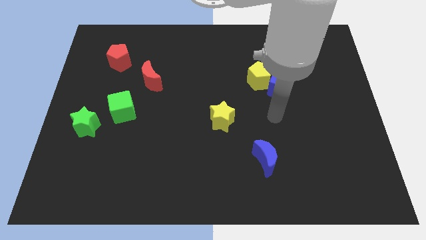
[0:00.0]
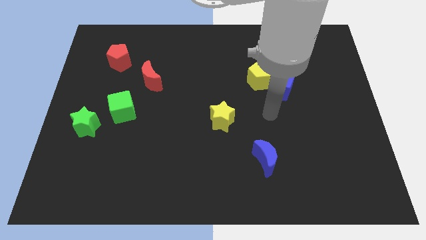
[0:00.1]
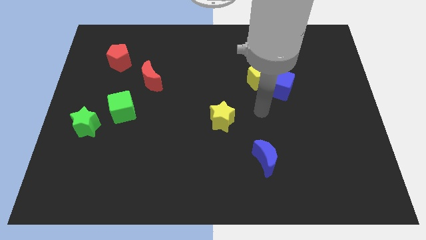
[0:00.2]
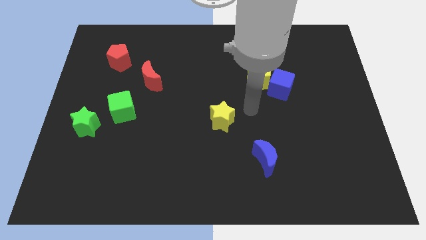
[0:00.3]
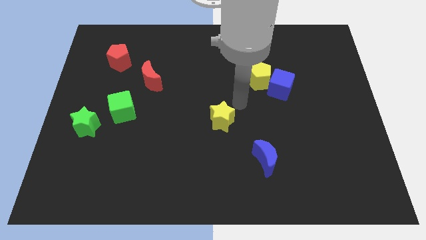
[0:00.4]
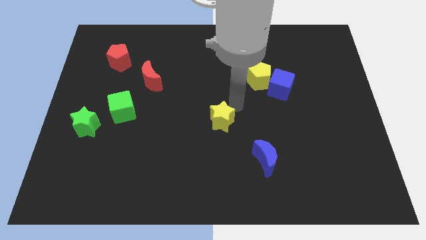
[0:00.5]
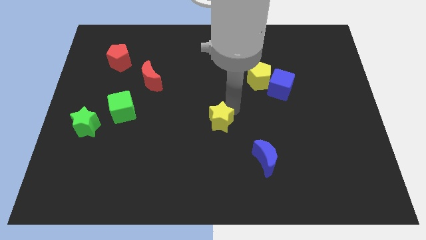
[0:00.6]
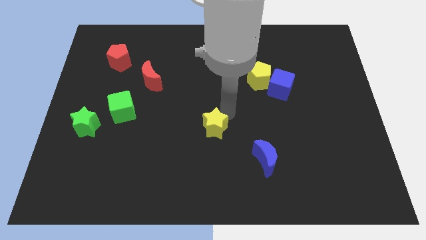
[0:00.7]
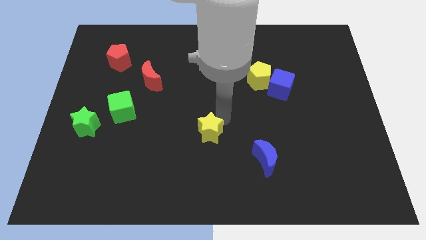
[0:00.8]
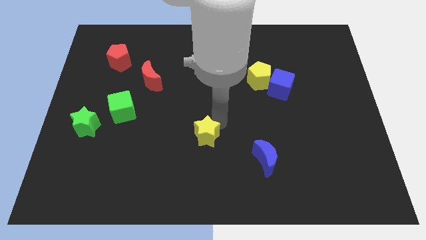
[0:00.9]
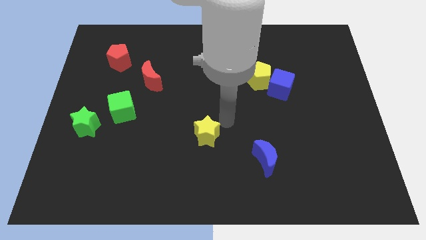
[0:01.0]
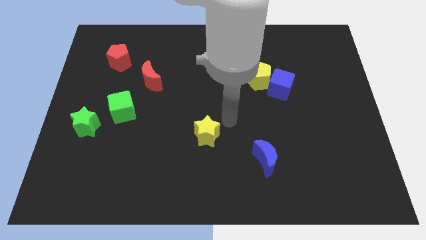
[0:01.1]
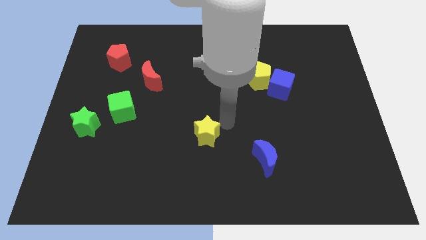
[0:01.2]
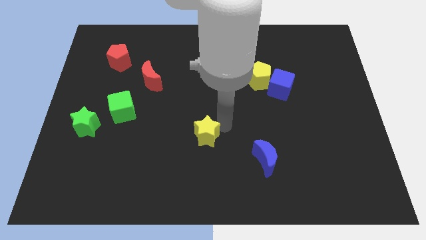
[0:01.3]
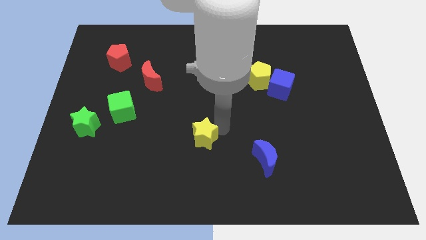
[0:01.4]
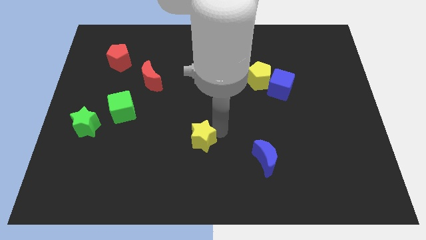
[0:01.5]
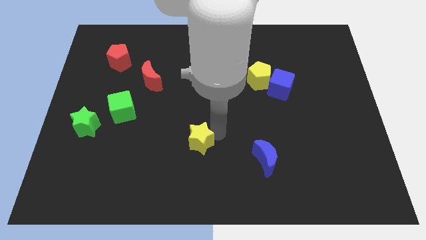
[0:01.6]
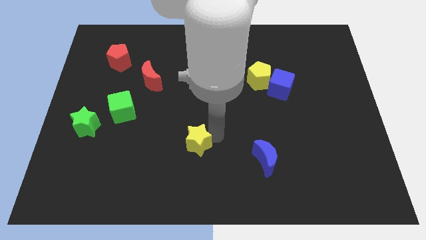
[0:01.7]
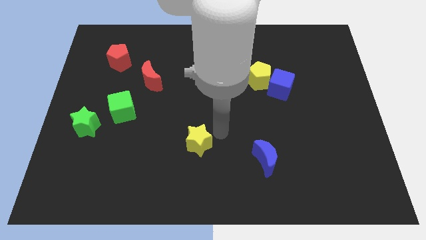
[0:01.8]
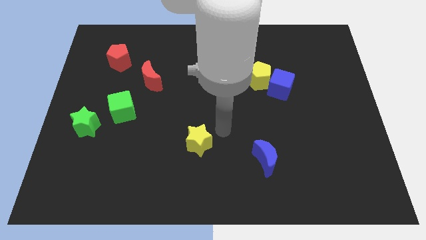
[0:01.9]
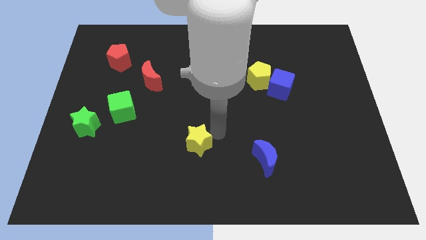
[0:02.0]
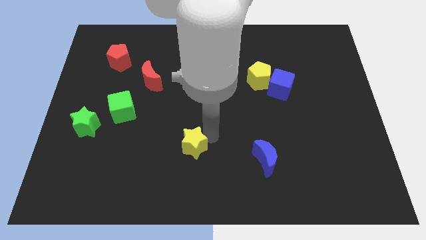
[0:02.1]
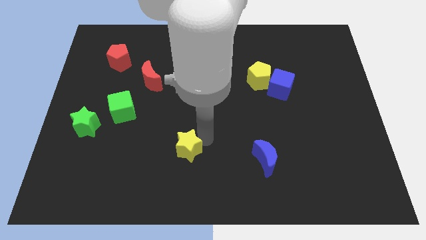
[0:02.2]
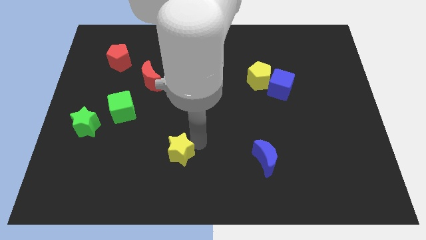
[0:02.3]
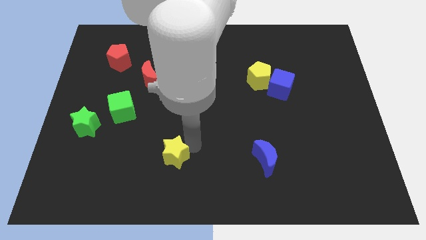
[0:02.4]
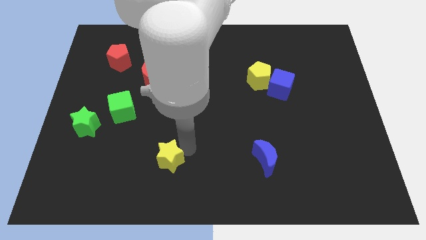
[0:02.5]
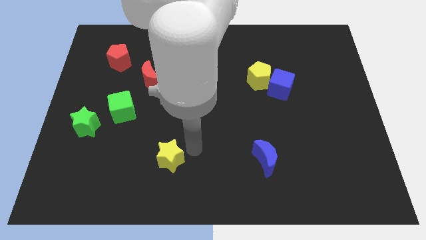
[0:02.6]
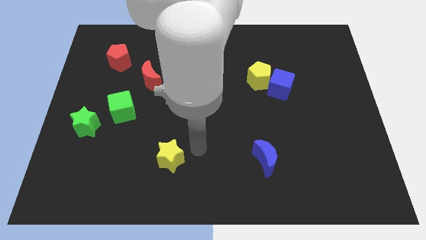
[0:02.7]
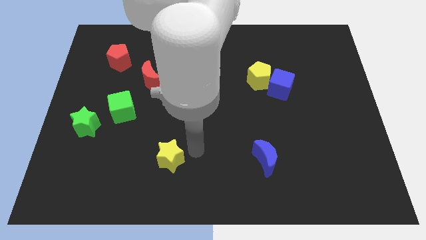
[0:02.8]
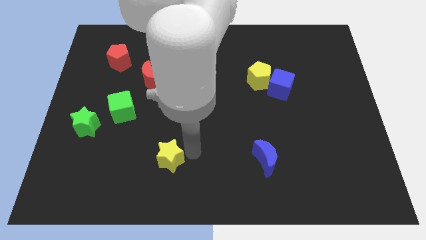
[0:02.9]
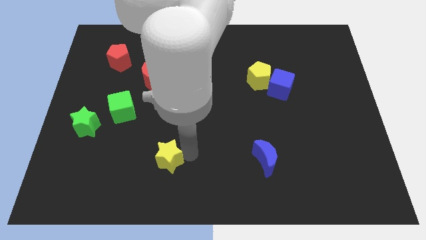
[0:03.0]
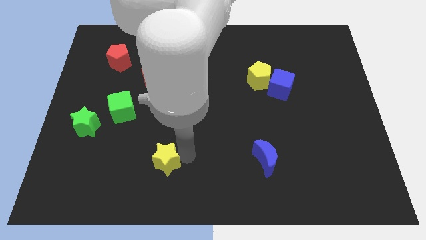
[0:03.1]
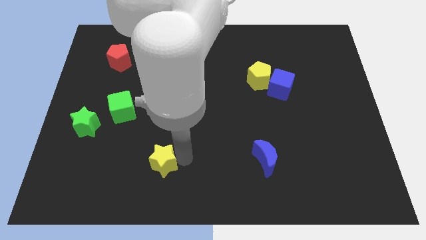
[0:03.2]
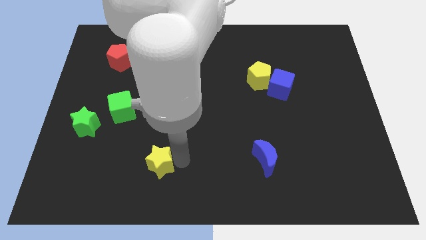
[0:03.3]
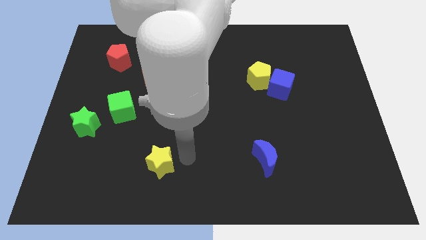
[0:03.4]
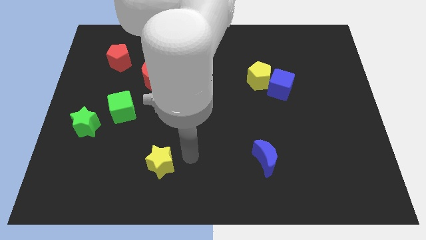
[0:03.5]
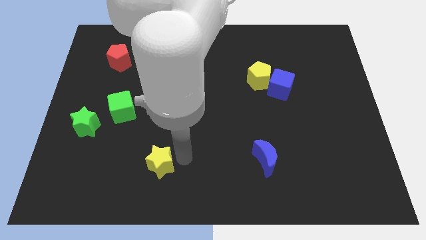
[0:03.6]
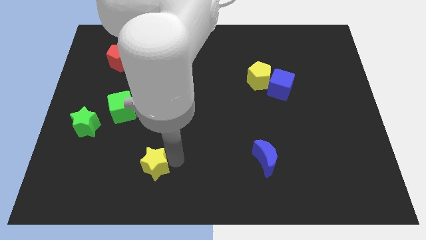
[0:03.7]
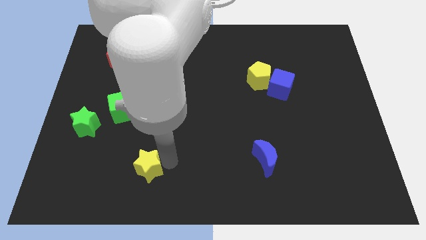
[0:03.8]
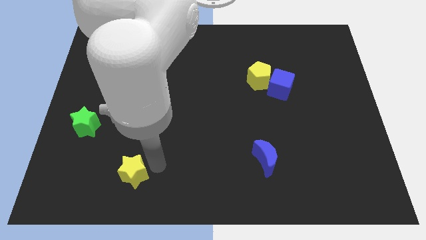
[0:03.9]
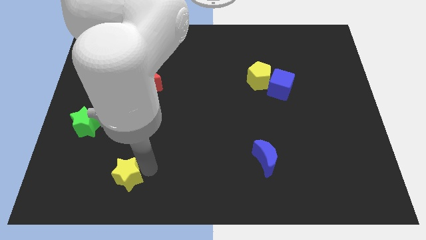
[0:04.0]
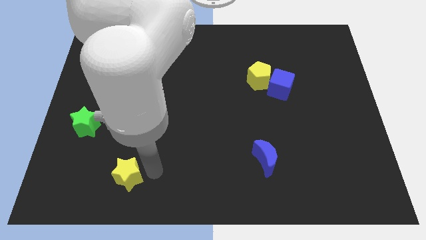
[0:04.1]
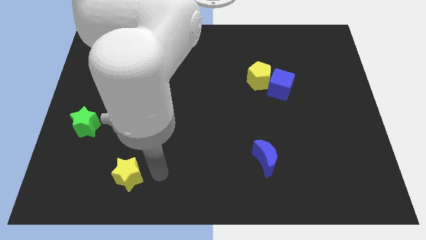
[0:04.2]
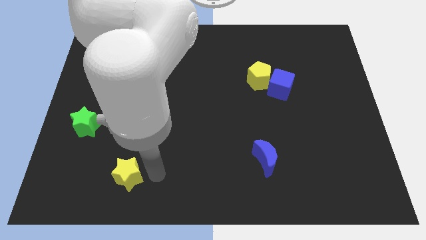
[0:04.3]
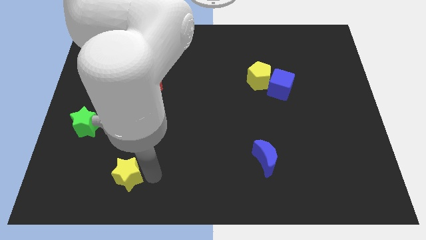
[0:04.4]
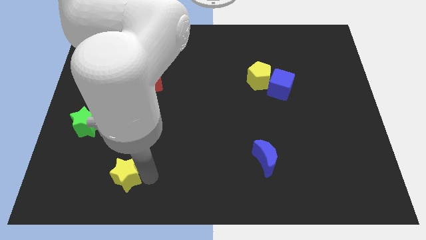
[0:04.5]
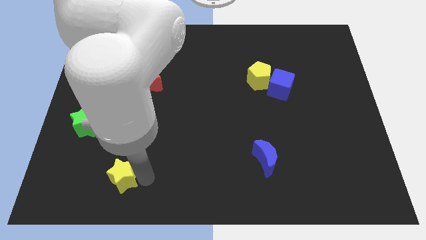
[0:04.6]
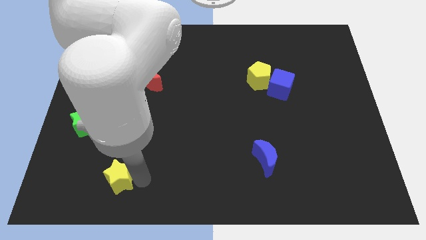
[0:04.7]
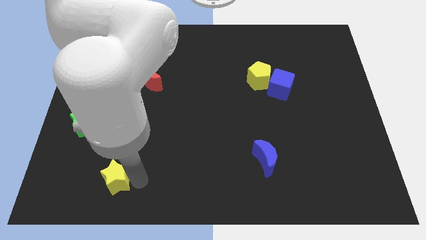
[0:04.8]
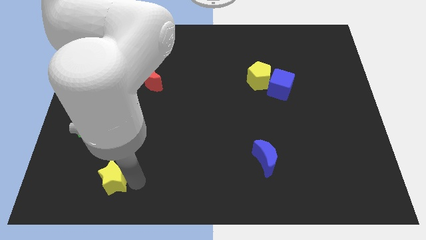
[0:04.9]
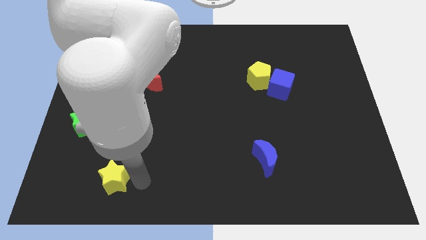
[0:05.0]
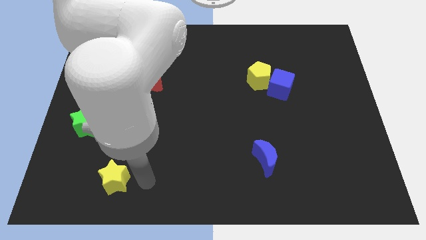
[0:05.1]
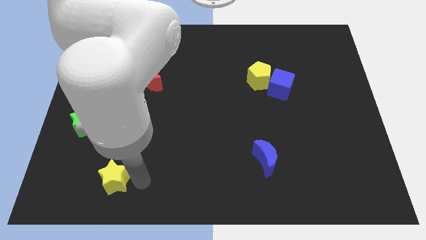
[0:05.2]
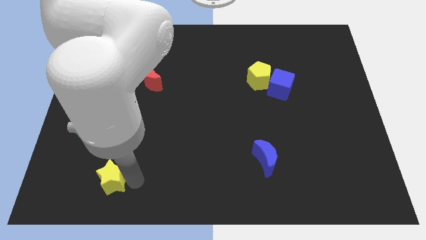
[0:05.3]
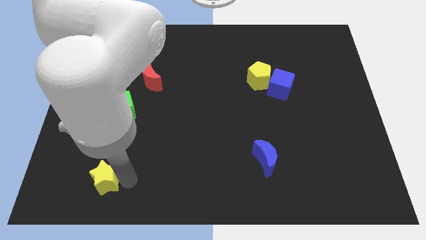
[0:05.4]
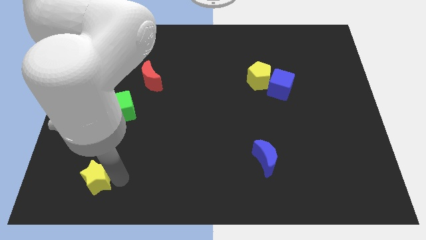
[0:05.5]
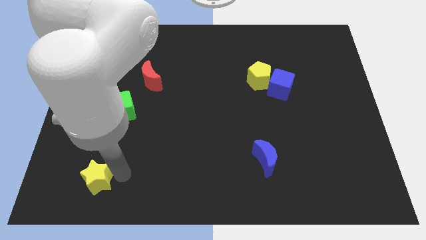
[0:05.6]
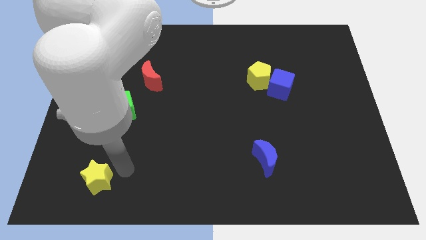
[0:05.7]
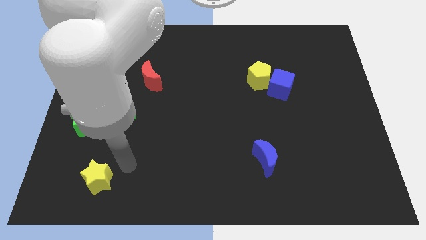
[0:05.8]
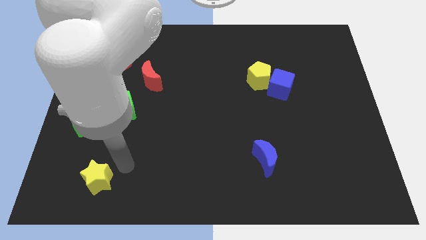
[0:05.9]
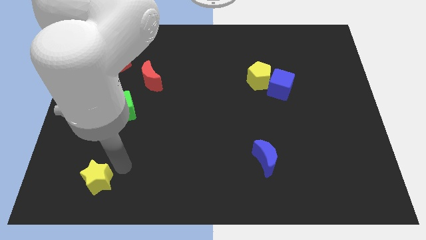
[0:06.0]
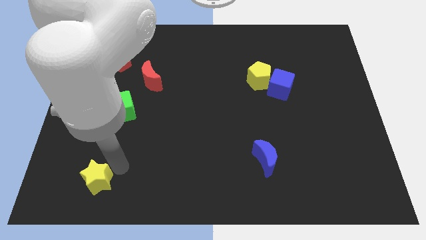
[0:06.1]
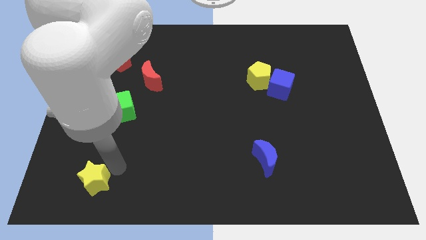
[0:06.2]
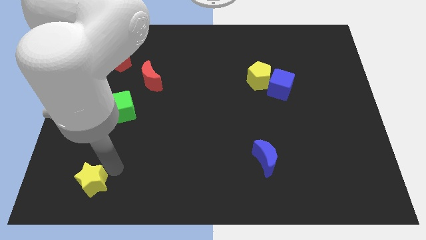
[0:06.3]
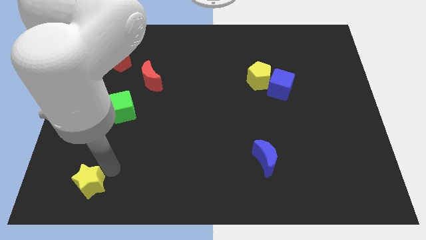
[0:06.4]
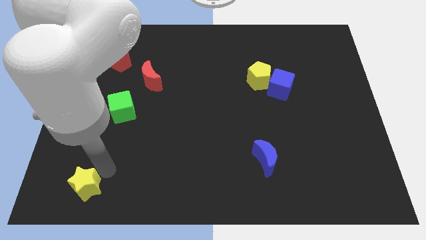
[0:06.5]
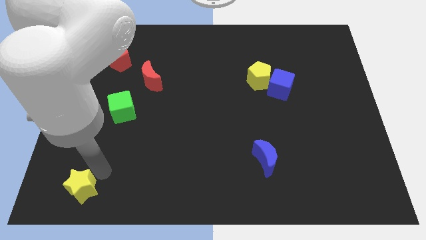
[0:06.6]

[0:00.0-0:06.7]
move the yellow star to the bottom left
